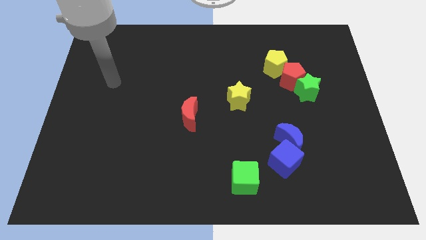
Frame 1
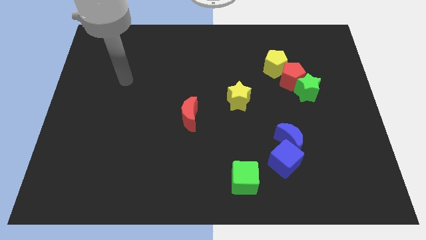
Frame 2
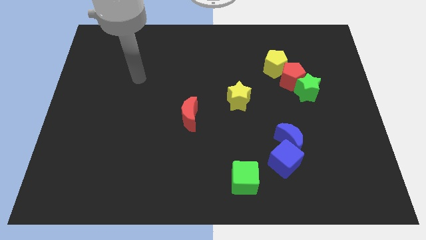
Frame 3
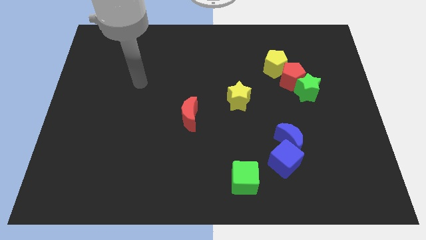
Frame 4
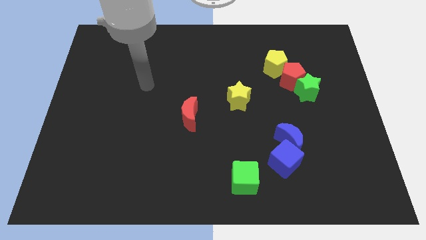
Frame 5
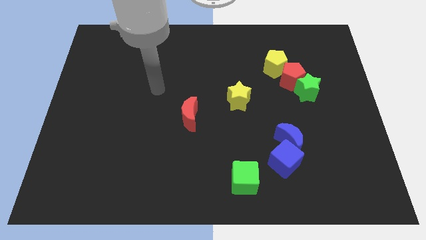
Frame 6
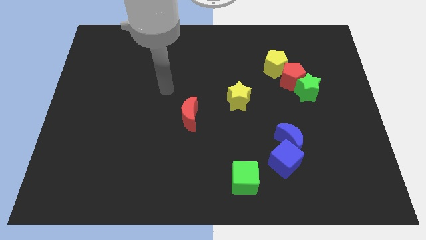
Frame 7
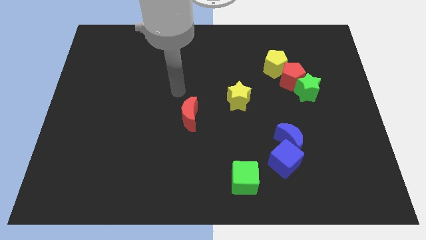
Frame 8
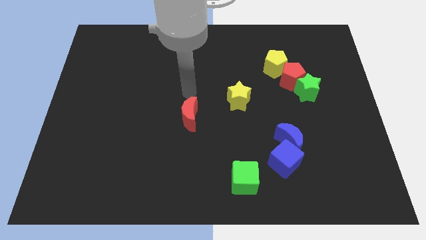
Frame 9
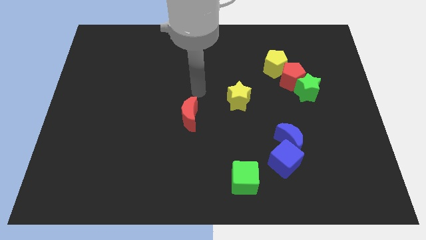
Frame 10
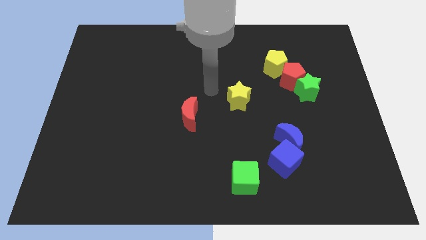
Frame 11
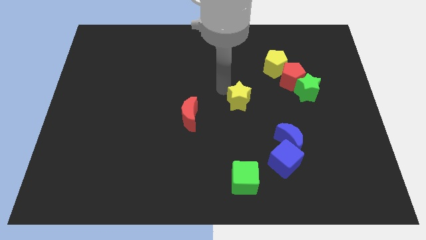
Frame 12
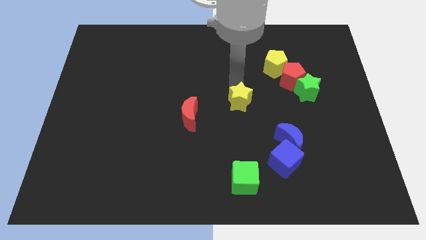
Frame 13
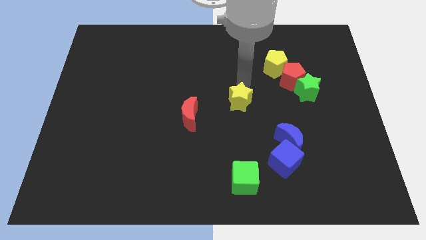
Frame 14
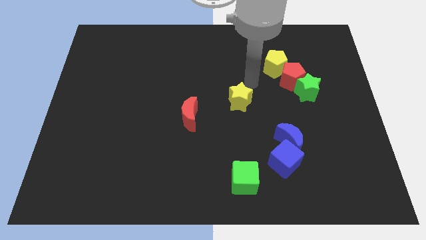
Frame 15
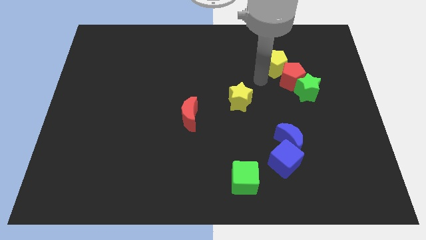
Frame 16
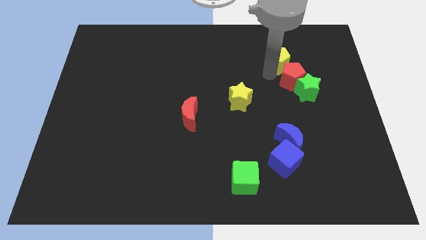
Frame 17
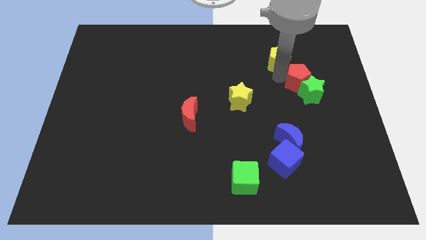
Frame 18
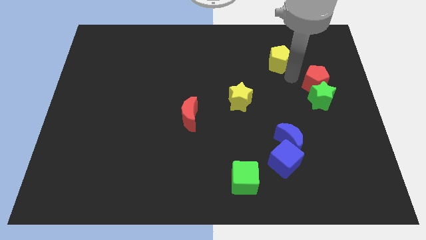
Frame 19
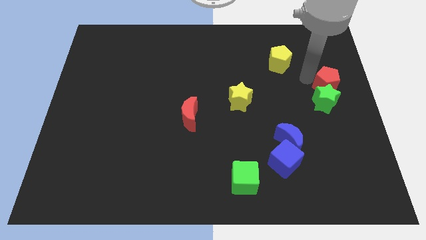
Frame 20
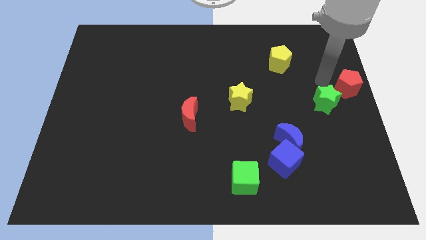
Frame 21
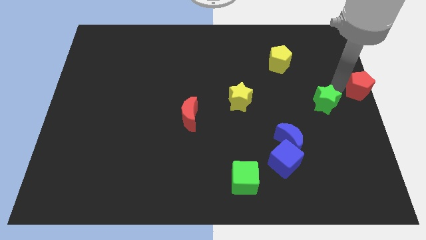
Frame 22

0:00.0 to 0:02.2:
separate the green star from the red pentagon

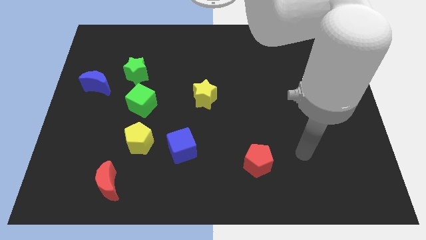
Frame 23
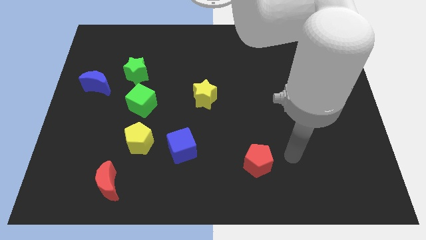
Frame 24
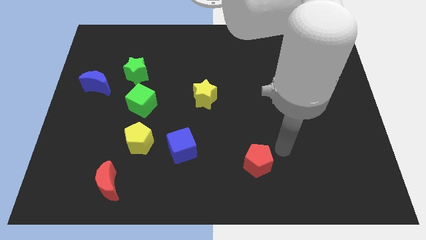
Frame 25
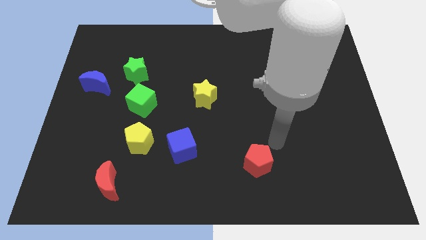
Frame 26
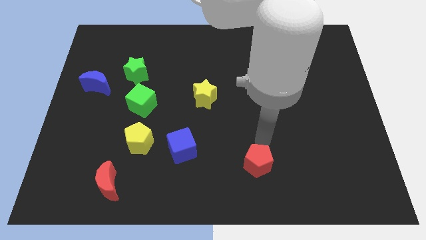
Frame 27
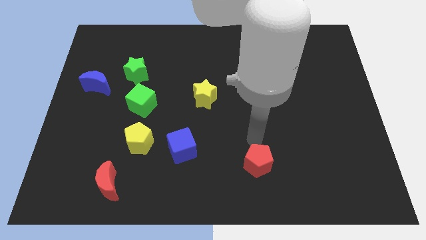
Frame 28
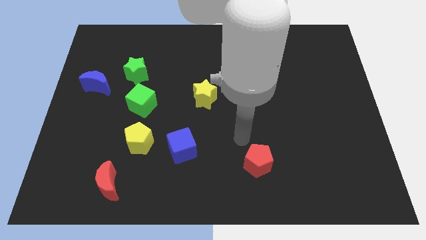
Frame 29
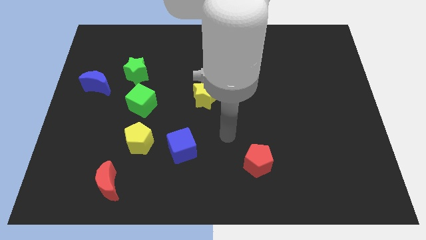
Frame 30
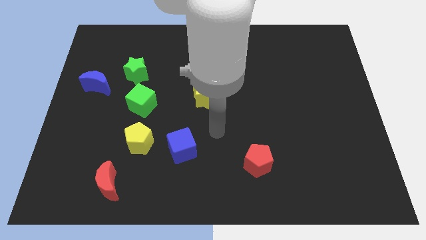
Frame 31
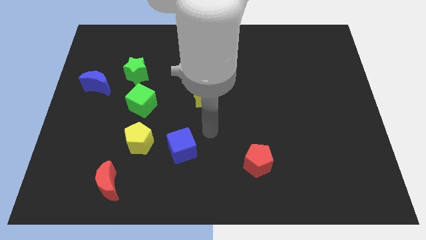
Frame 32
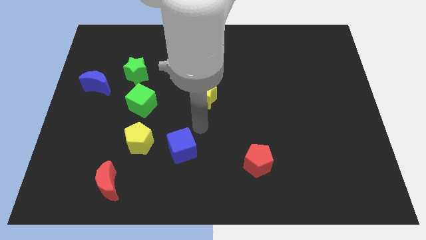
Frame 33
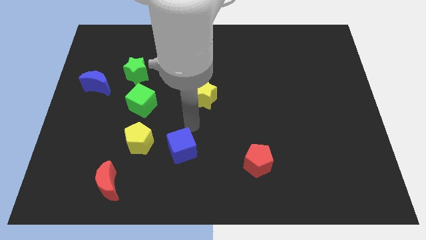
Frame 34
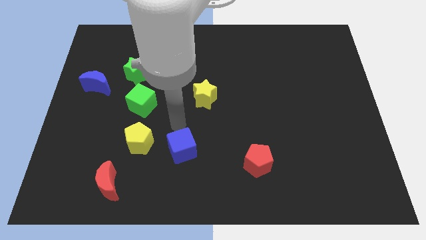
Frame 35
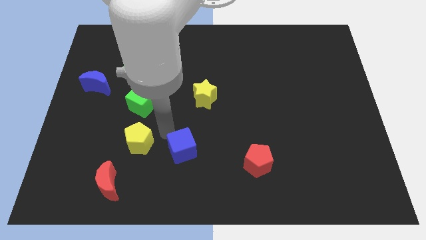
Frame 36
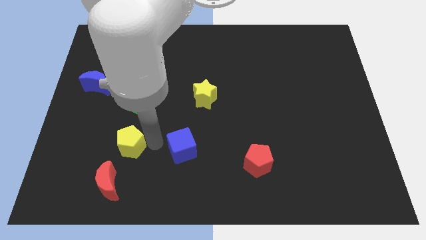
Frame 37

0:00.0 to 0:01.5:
separate the blue cube from the yellow pentagon

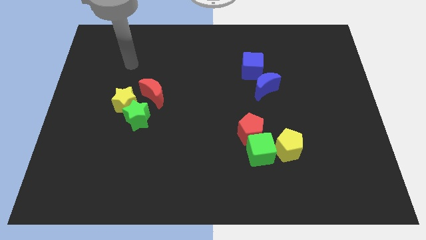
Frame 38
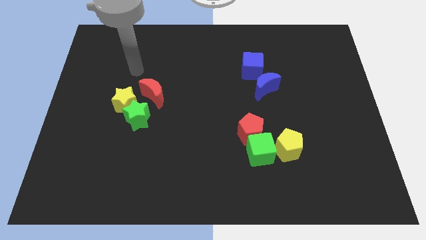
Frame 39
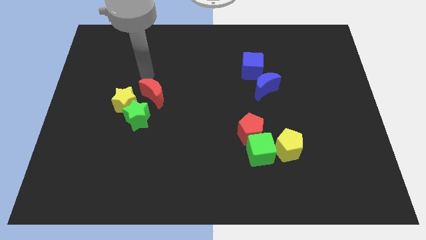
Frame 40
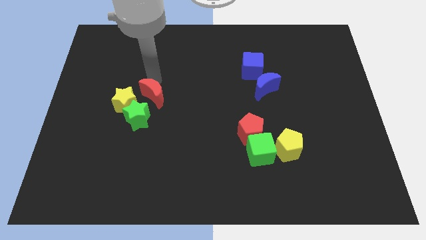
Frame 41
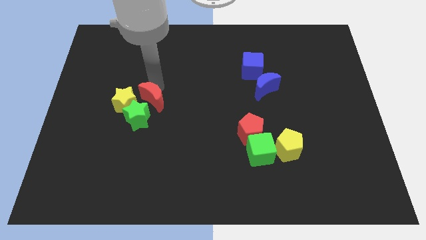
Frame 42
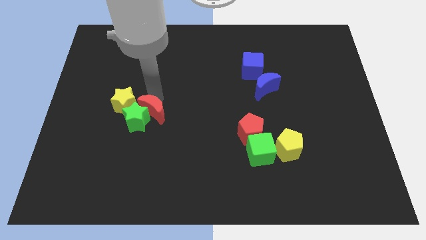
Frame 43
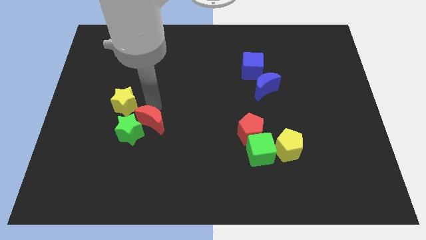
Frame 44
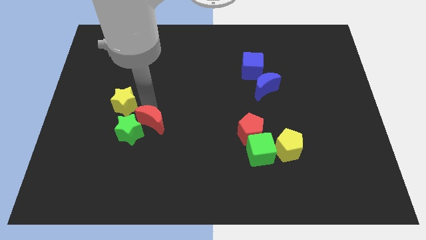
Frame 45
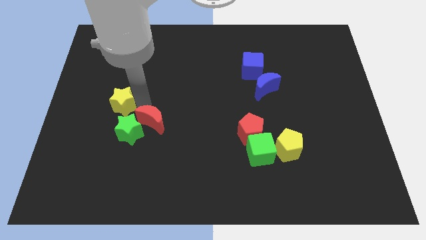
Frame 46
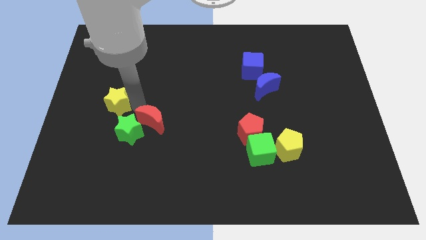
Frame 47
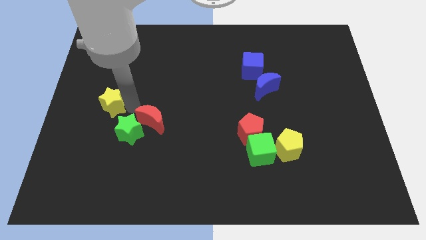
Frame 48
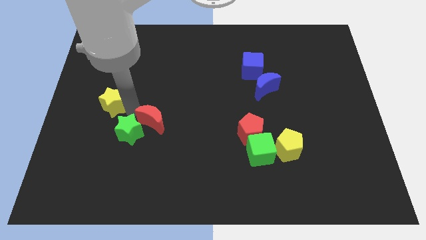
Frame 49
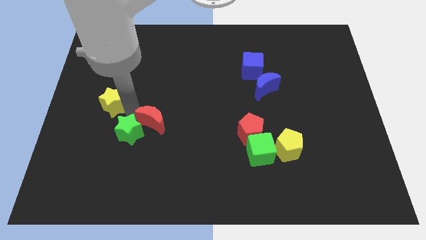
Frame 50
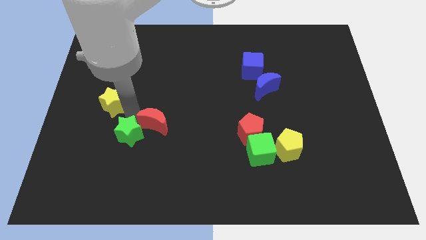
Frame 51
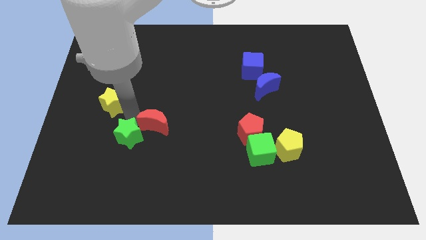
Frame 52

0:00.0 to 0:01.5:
pull the yellow star apart from the green star and red moon

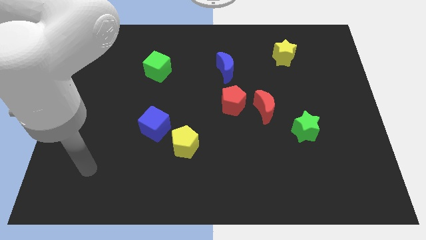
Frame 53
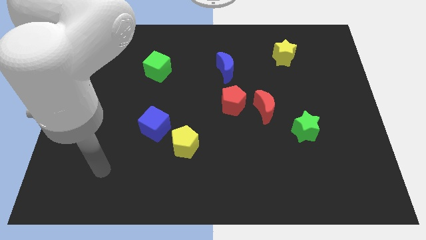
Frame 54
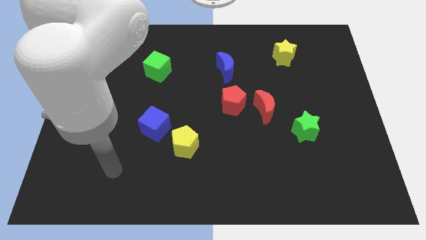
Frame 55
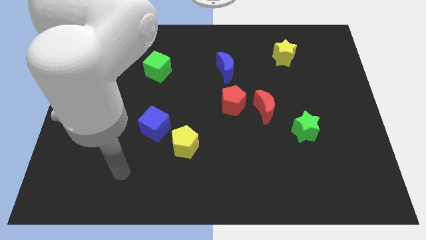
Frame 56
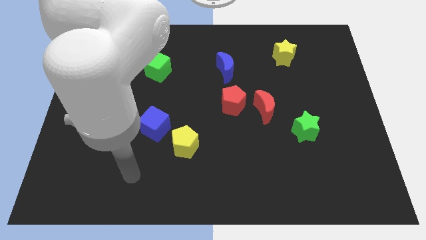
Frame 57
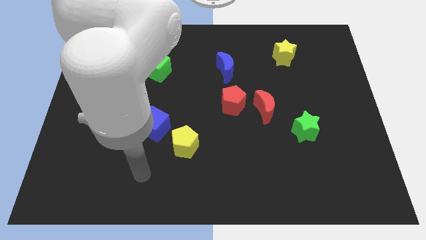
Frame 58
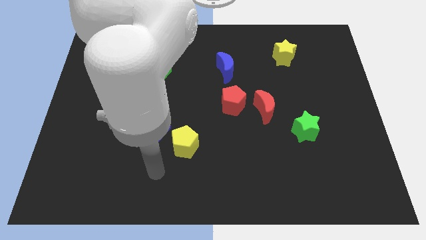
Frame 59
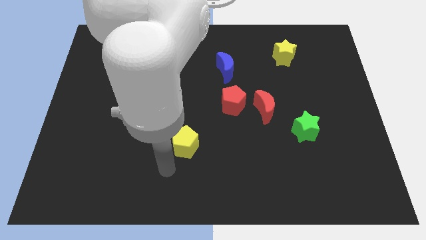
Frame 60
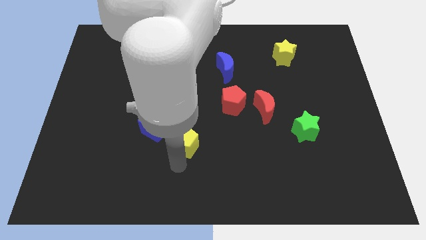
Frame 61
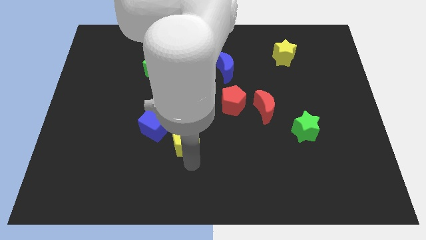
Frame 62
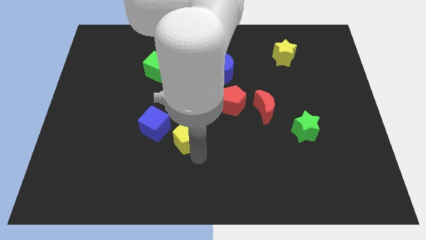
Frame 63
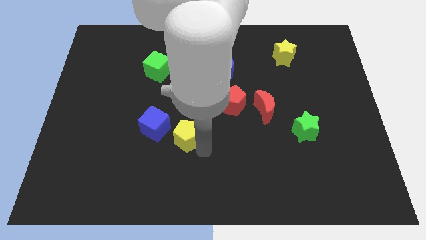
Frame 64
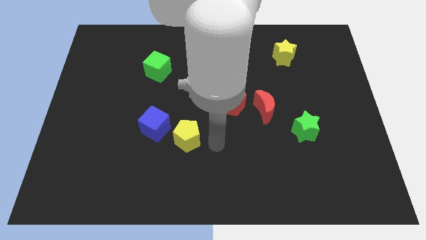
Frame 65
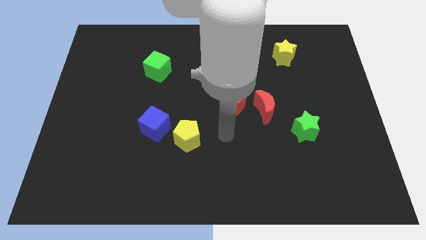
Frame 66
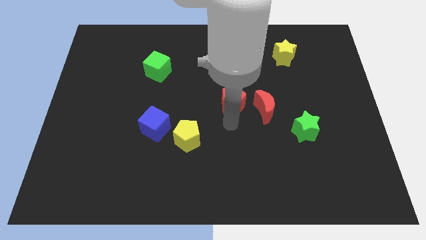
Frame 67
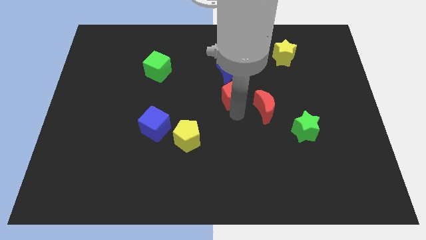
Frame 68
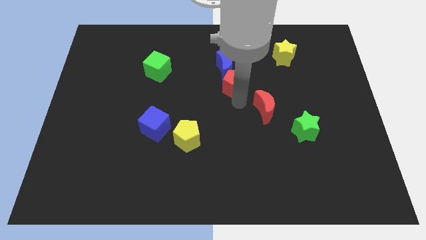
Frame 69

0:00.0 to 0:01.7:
separate the red moon from the red pentagon

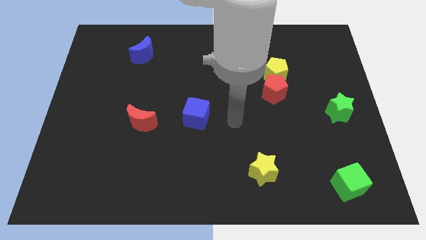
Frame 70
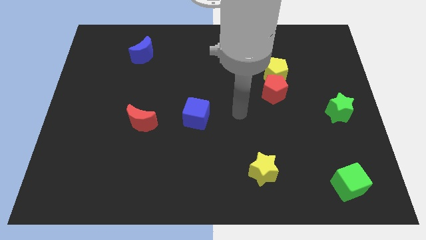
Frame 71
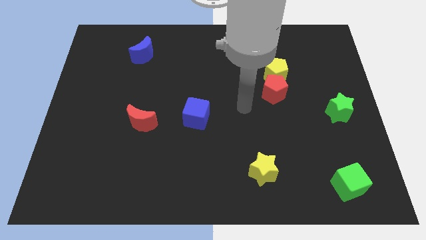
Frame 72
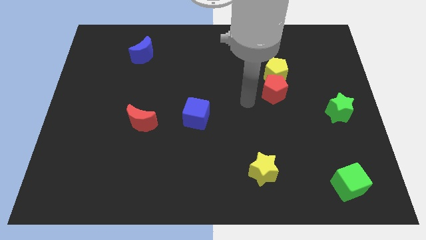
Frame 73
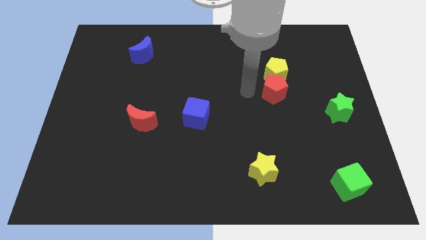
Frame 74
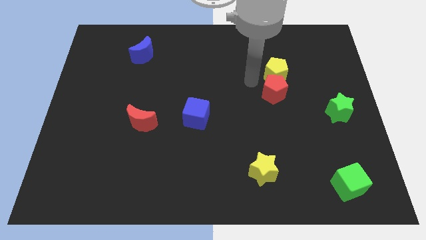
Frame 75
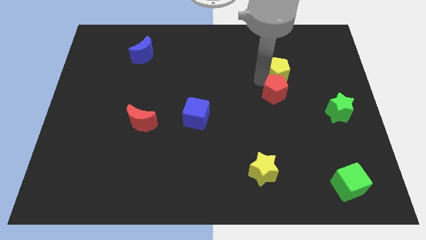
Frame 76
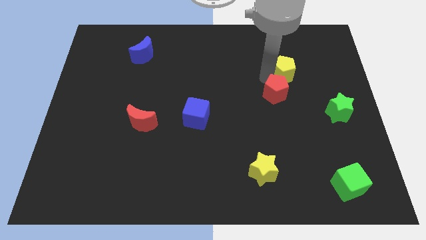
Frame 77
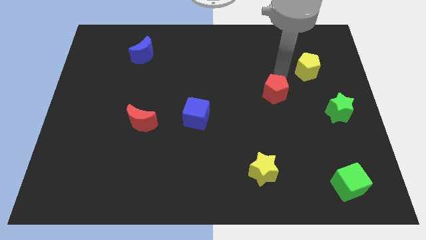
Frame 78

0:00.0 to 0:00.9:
move the red pentagon away from the yellow pentagon

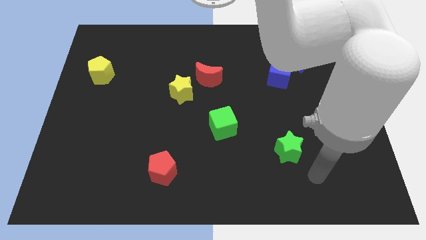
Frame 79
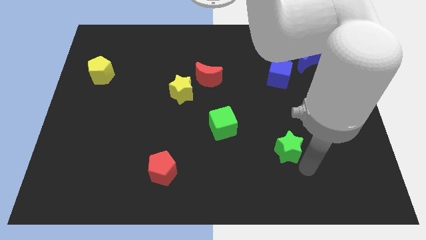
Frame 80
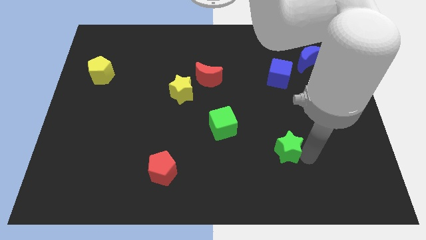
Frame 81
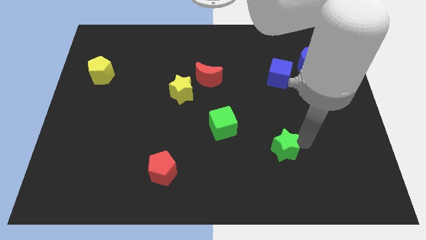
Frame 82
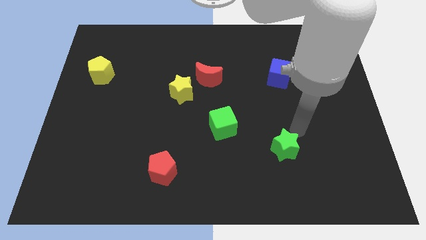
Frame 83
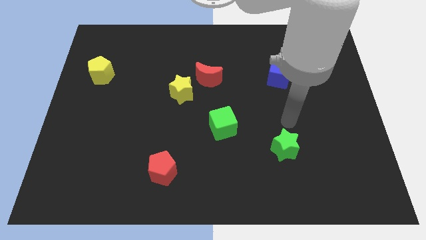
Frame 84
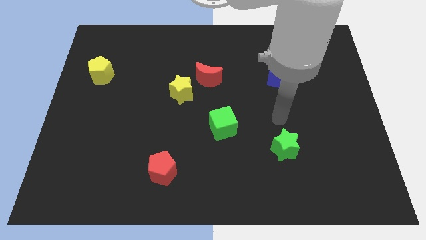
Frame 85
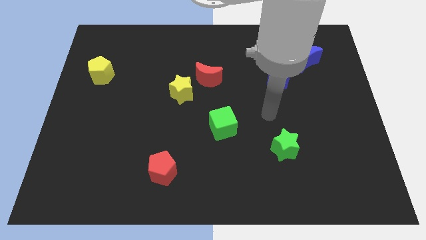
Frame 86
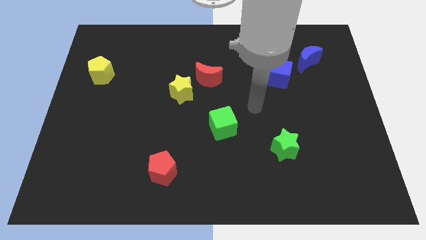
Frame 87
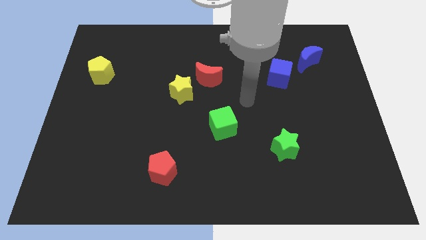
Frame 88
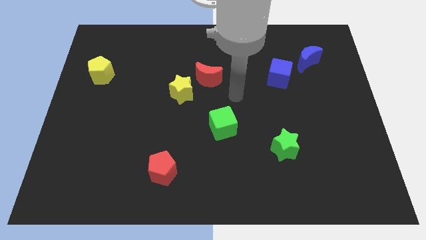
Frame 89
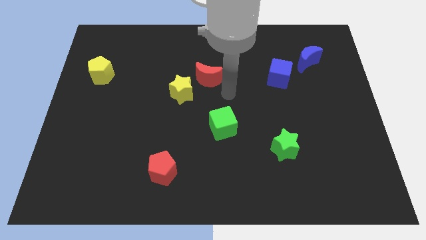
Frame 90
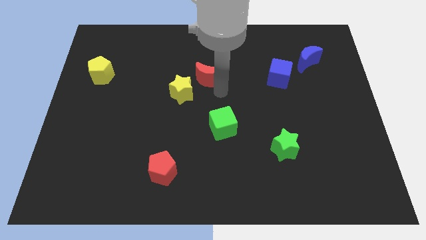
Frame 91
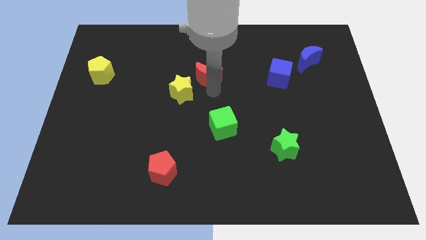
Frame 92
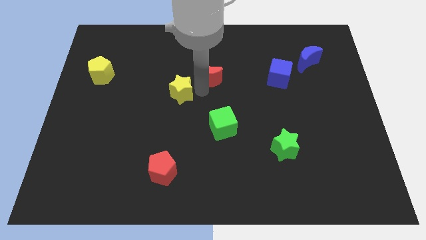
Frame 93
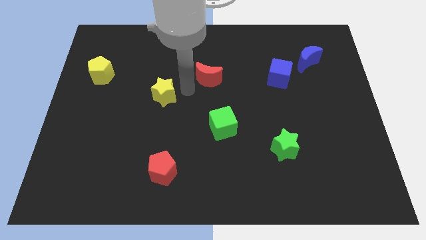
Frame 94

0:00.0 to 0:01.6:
move the red moon away from the yellow star
